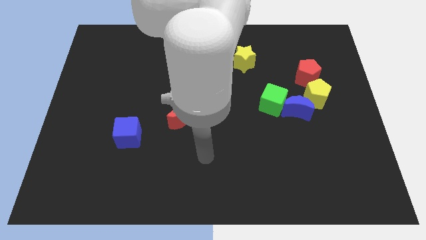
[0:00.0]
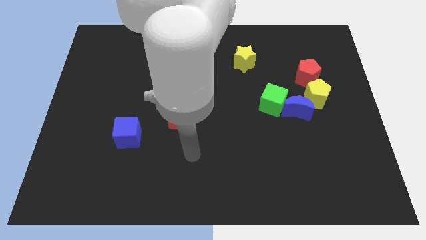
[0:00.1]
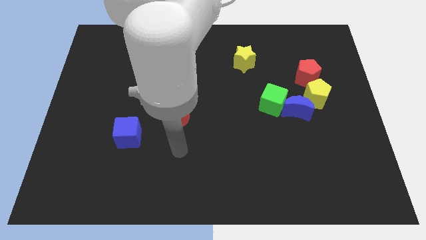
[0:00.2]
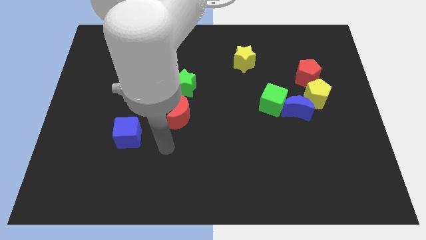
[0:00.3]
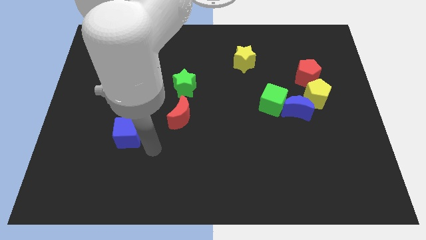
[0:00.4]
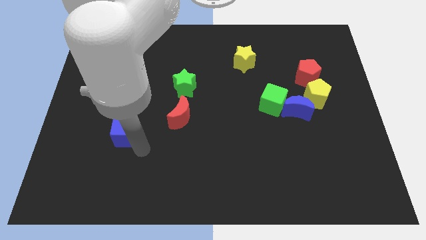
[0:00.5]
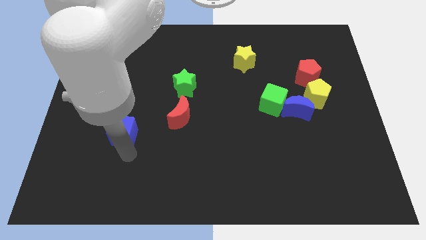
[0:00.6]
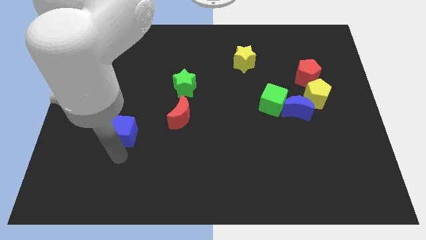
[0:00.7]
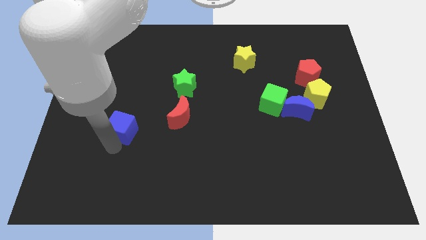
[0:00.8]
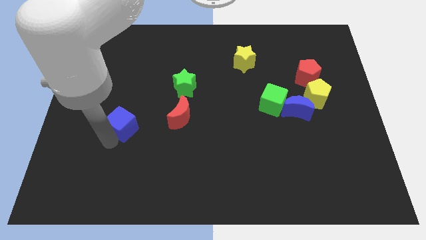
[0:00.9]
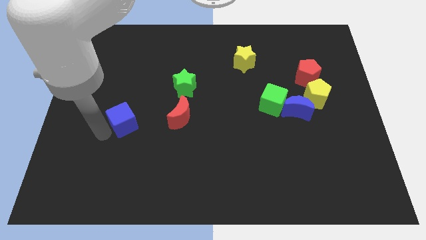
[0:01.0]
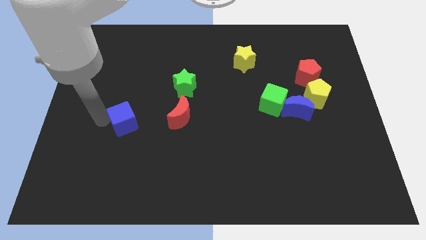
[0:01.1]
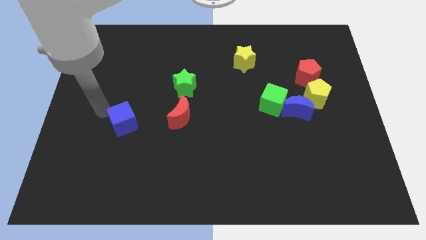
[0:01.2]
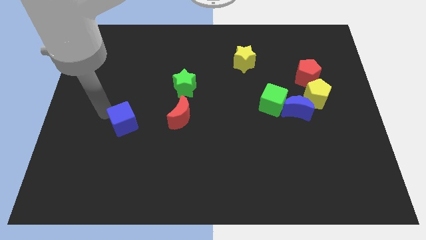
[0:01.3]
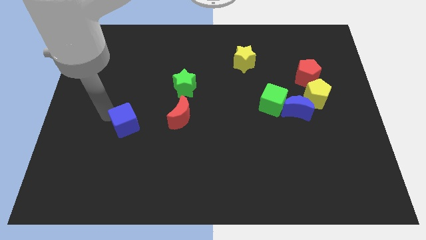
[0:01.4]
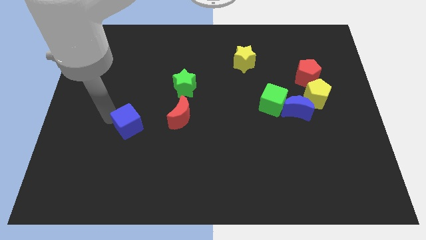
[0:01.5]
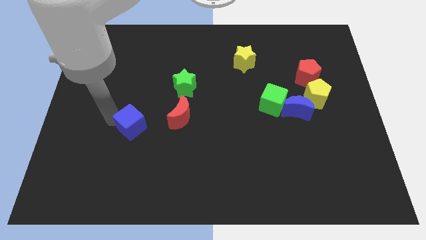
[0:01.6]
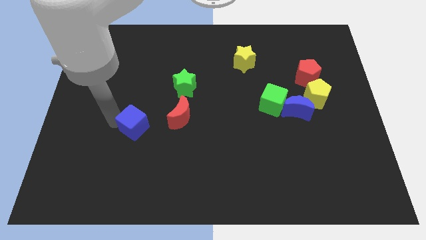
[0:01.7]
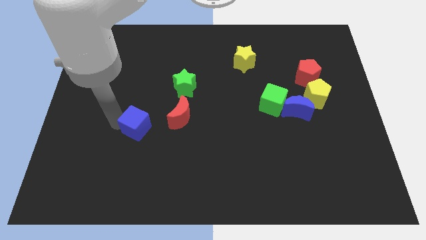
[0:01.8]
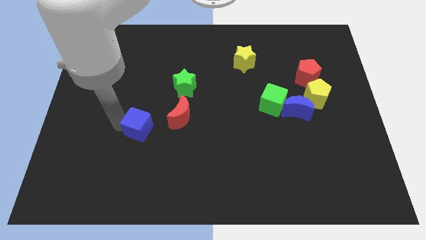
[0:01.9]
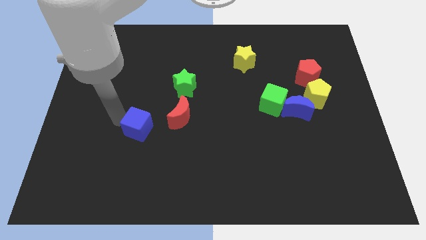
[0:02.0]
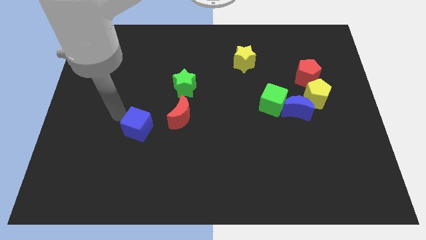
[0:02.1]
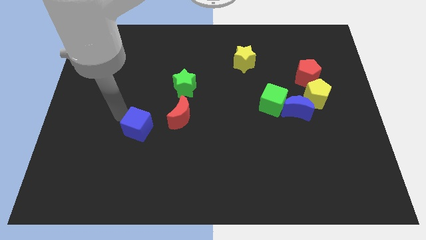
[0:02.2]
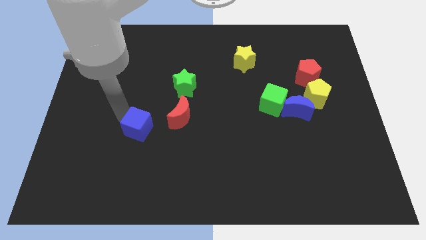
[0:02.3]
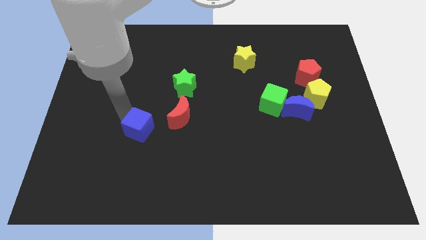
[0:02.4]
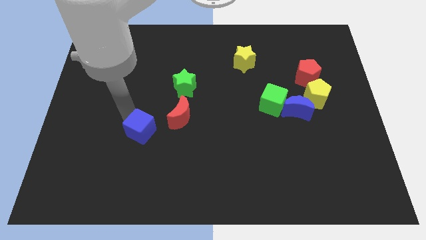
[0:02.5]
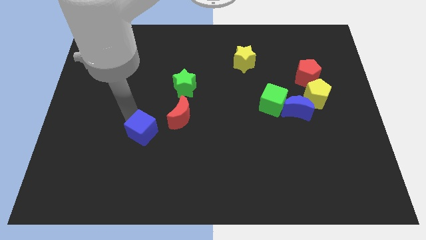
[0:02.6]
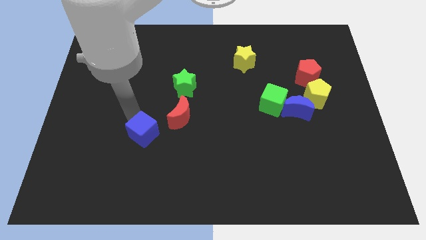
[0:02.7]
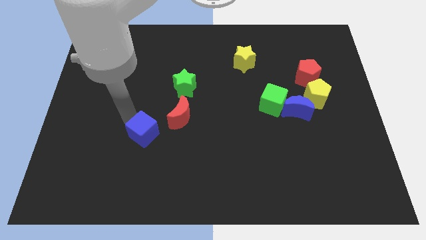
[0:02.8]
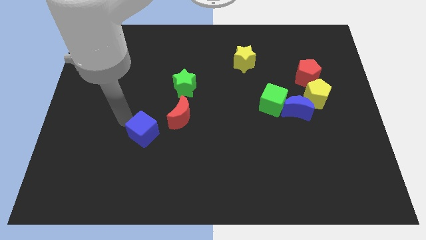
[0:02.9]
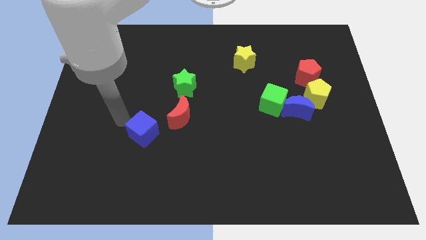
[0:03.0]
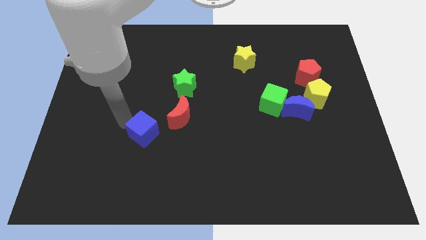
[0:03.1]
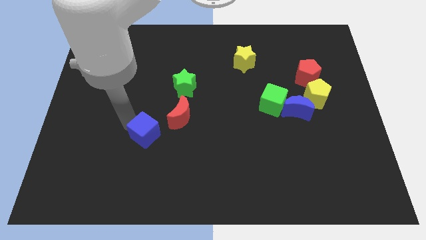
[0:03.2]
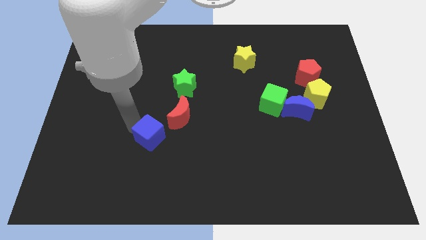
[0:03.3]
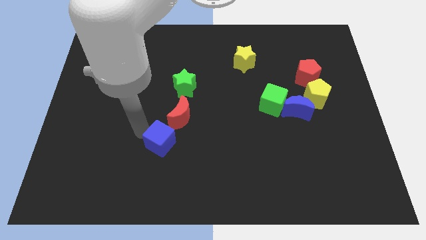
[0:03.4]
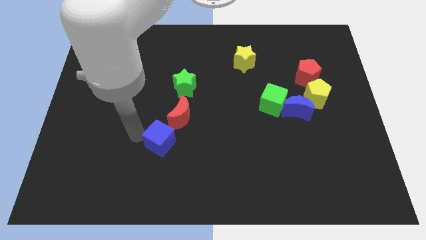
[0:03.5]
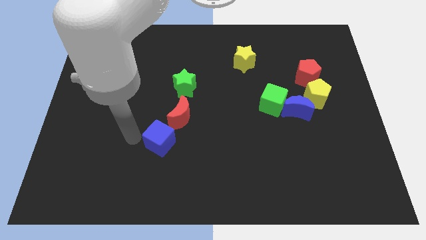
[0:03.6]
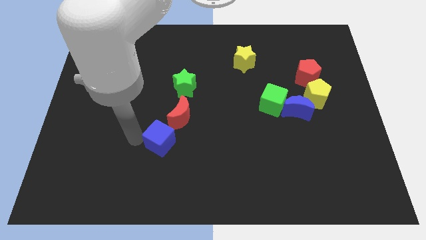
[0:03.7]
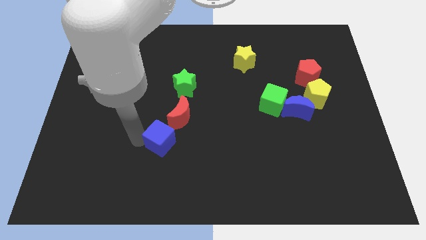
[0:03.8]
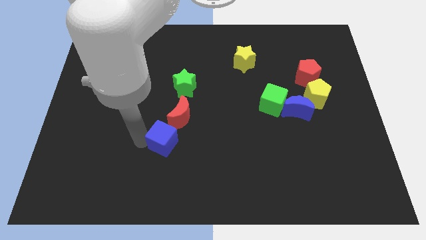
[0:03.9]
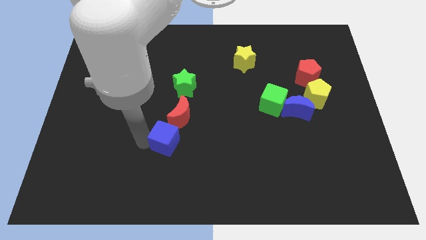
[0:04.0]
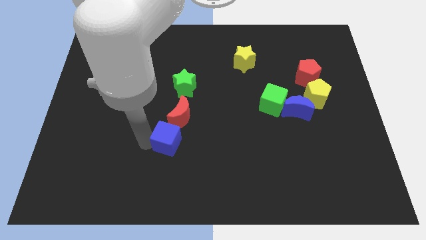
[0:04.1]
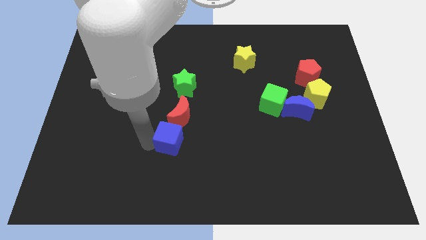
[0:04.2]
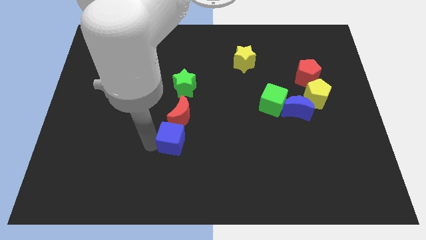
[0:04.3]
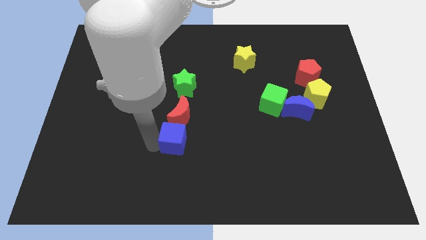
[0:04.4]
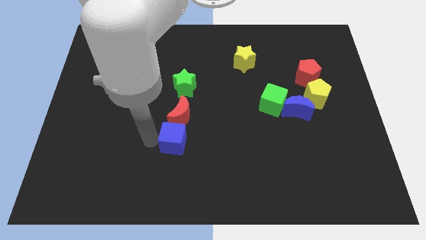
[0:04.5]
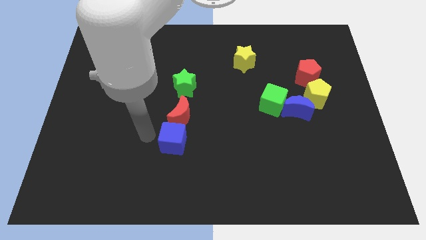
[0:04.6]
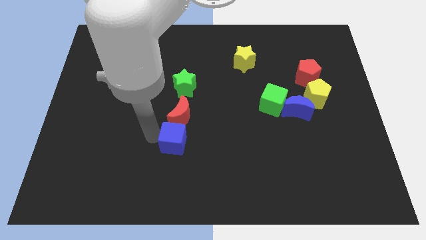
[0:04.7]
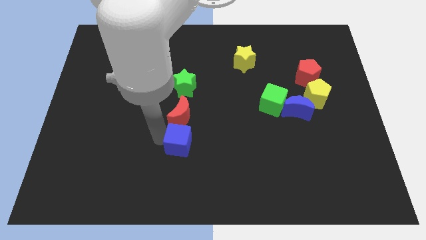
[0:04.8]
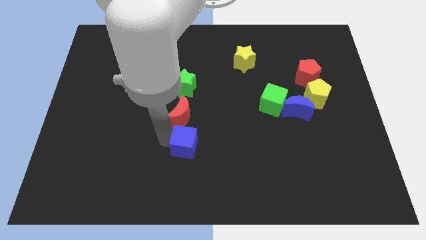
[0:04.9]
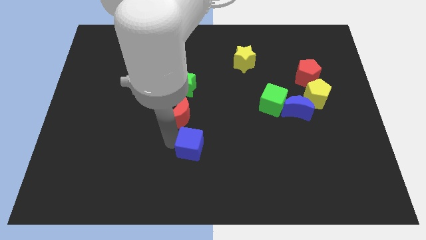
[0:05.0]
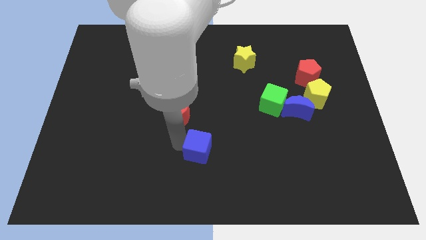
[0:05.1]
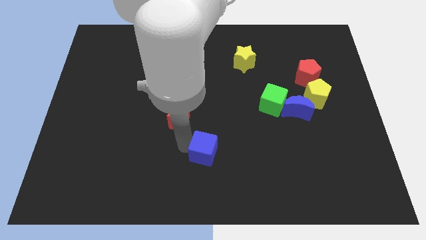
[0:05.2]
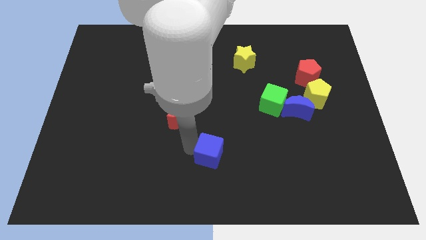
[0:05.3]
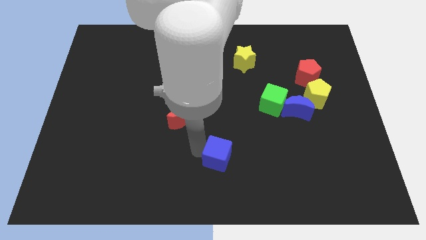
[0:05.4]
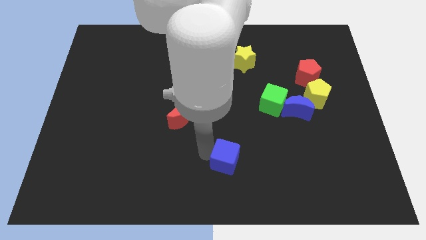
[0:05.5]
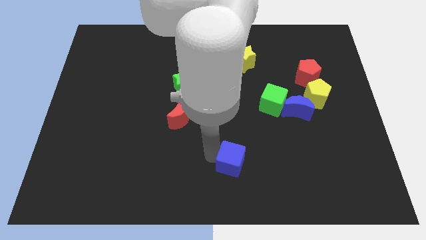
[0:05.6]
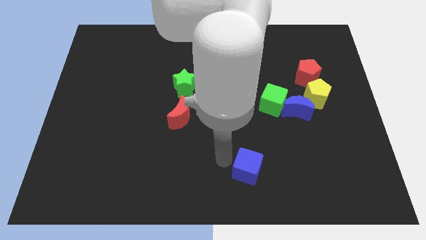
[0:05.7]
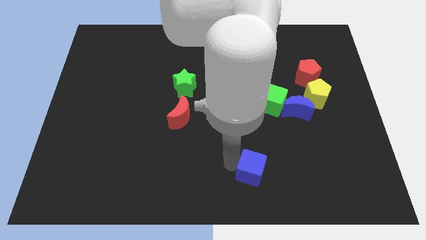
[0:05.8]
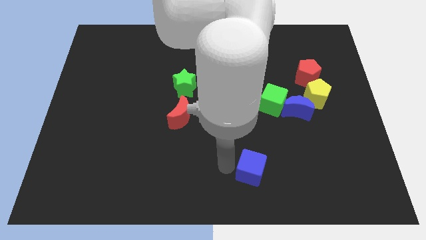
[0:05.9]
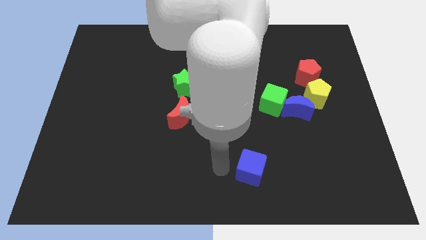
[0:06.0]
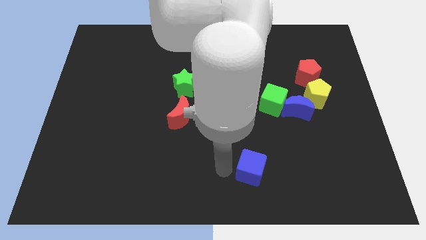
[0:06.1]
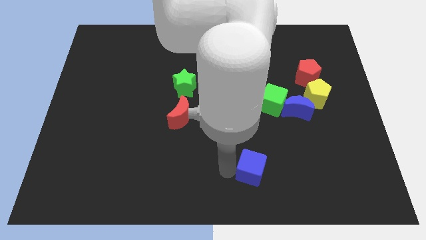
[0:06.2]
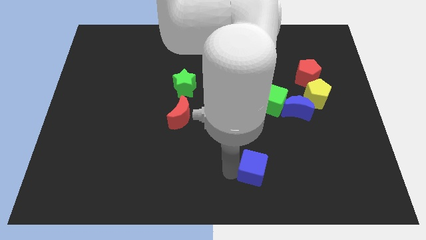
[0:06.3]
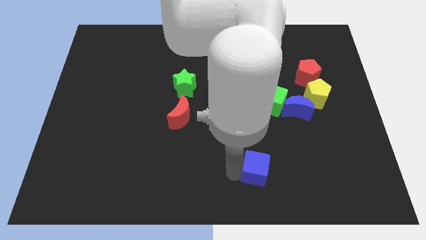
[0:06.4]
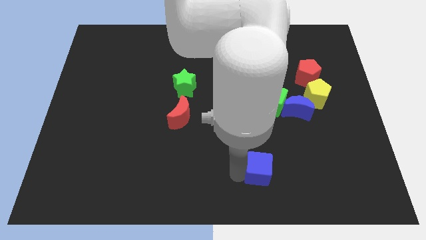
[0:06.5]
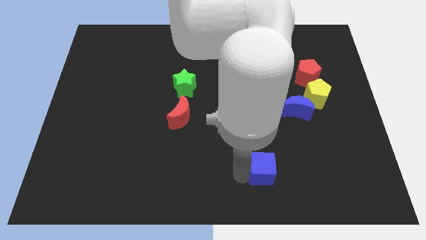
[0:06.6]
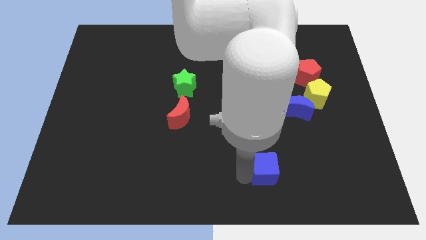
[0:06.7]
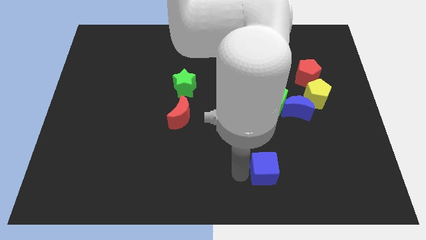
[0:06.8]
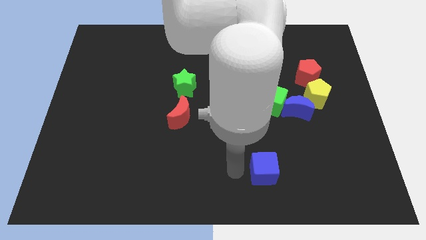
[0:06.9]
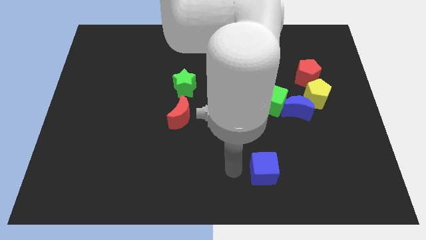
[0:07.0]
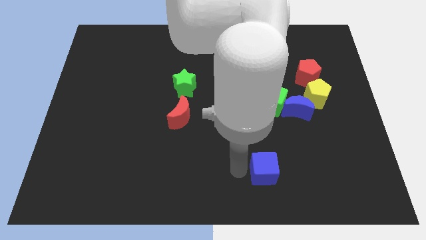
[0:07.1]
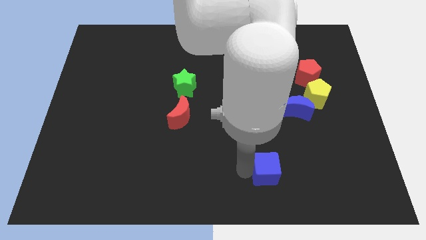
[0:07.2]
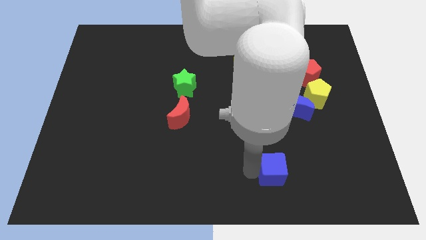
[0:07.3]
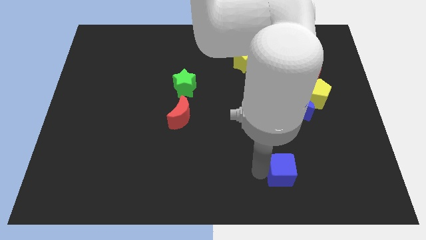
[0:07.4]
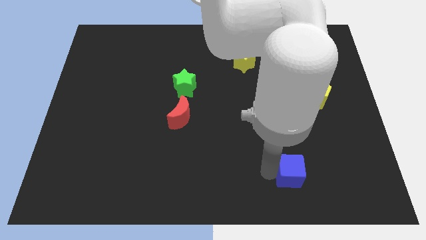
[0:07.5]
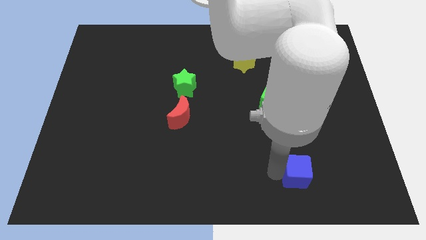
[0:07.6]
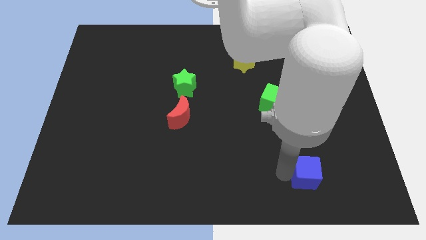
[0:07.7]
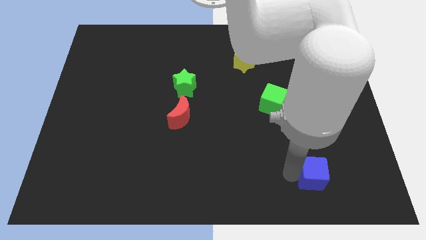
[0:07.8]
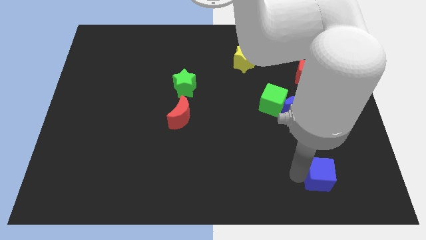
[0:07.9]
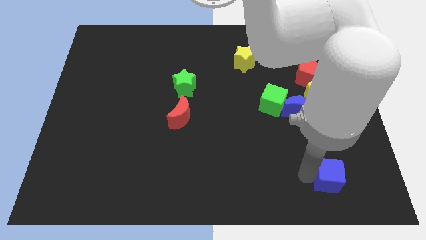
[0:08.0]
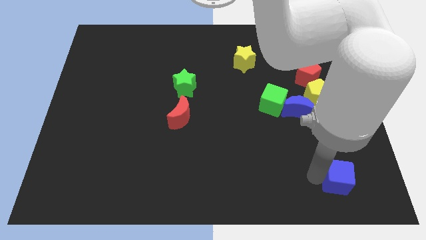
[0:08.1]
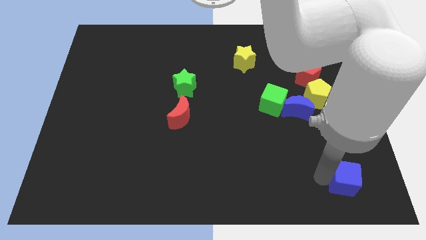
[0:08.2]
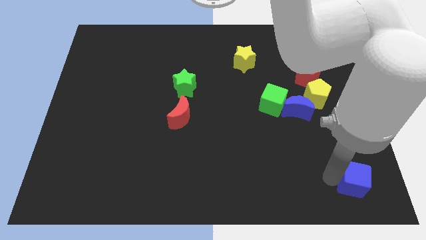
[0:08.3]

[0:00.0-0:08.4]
slide the blue cube to the bottom right of the board
